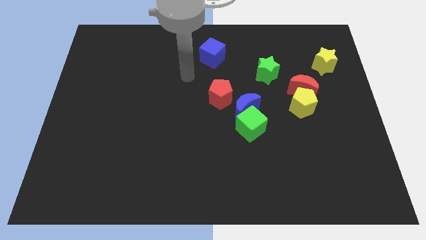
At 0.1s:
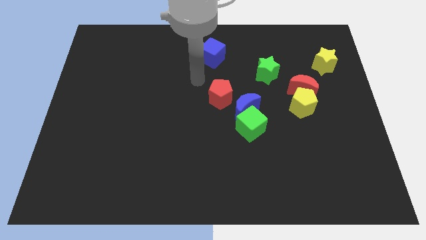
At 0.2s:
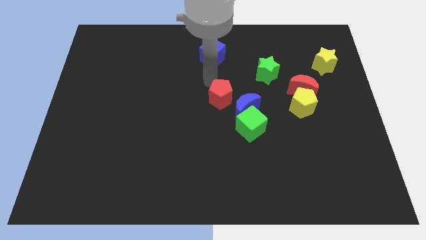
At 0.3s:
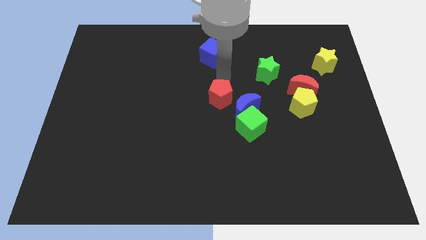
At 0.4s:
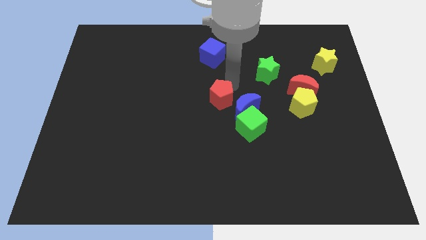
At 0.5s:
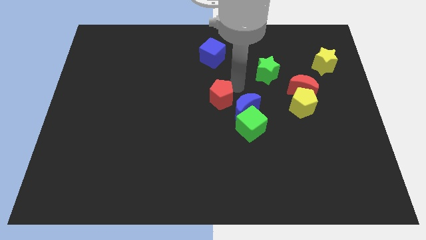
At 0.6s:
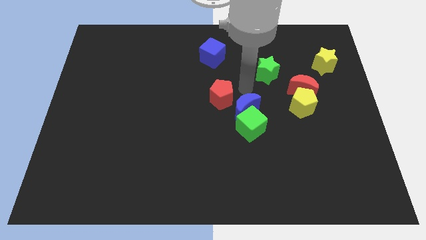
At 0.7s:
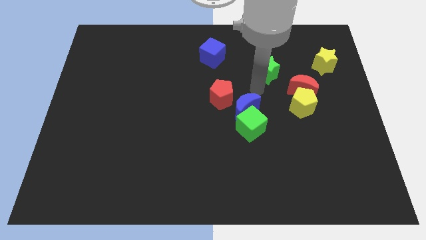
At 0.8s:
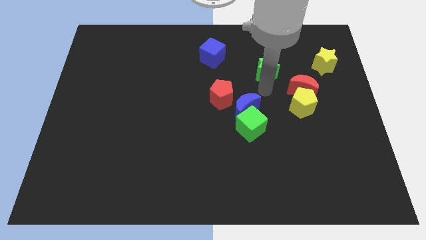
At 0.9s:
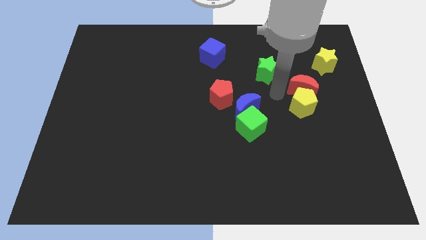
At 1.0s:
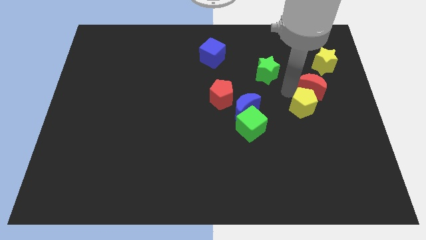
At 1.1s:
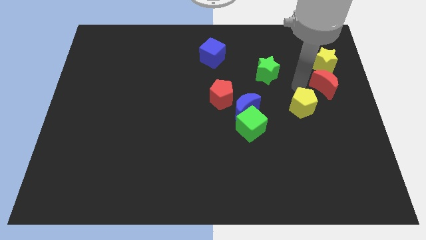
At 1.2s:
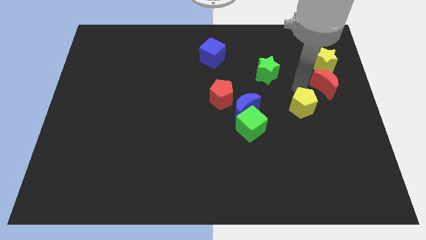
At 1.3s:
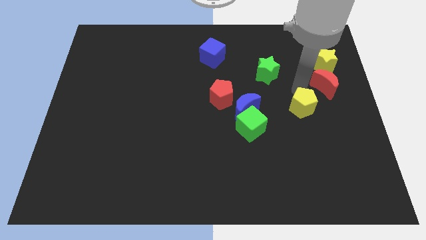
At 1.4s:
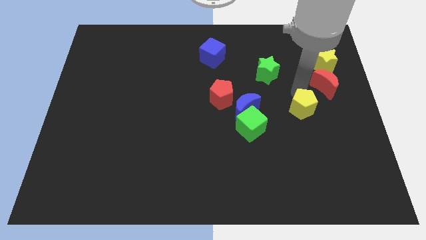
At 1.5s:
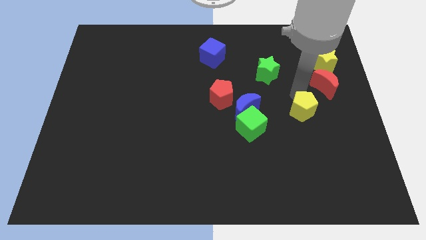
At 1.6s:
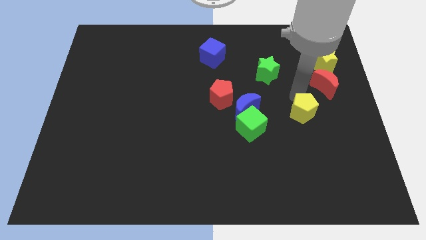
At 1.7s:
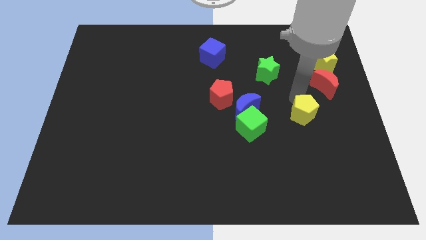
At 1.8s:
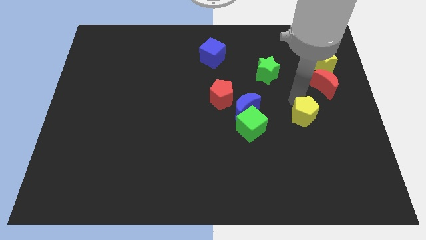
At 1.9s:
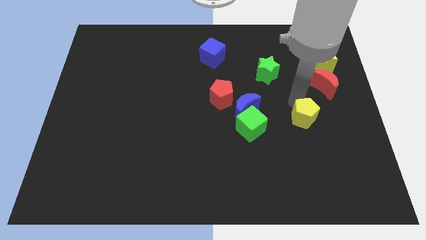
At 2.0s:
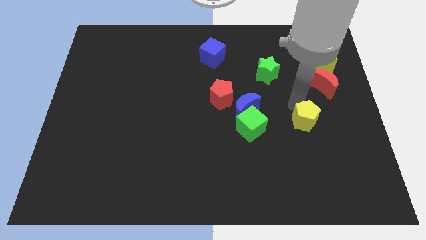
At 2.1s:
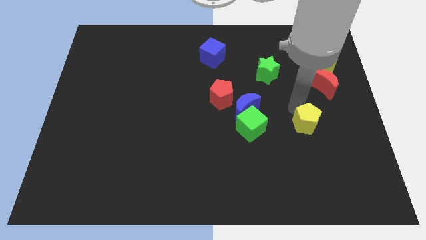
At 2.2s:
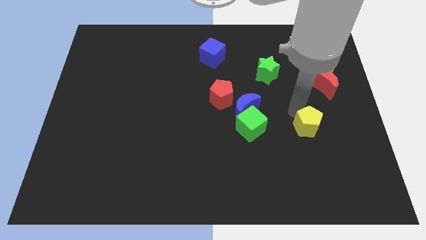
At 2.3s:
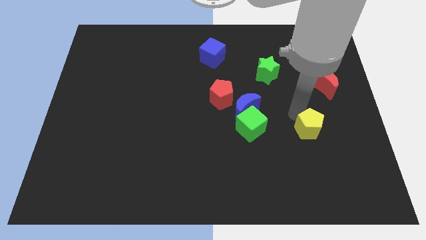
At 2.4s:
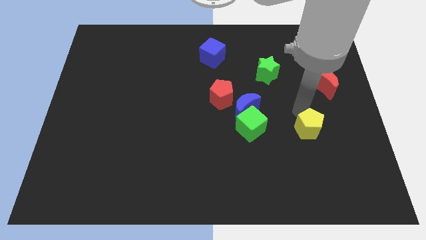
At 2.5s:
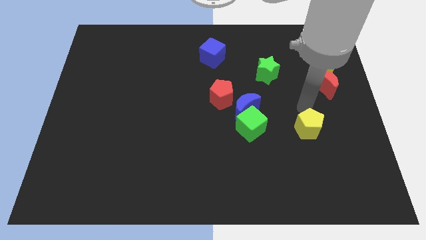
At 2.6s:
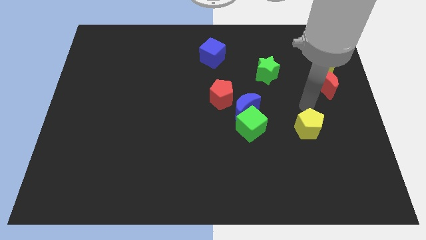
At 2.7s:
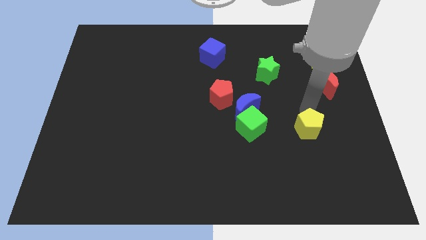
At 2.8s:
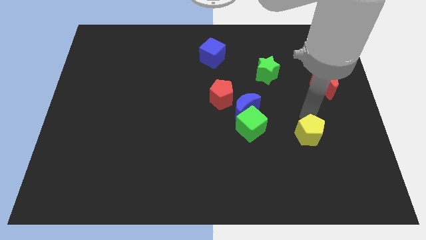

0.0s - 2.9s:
slide the yellow pentagon down a bit

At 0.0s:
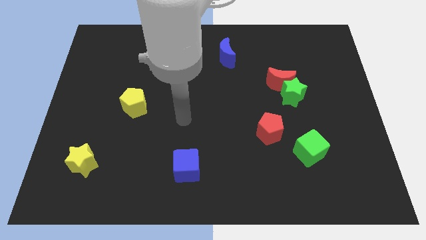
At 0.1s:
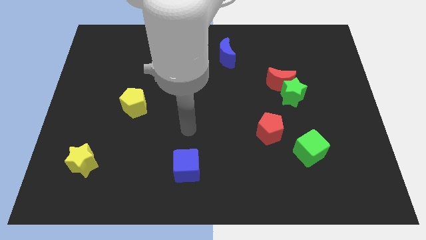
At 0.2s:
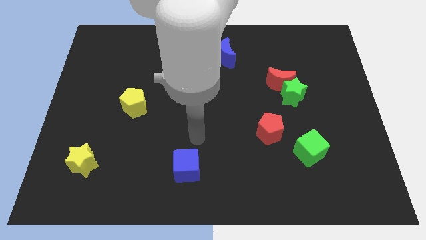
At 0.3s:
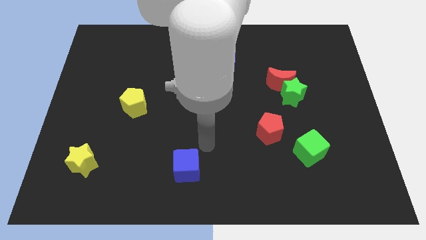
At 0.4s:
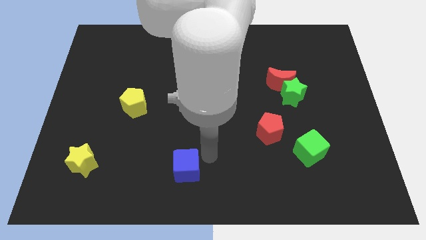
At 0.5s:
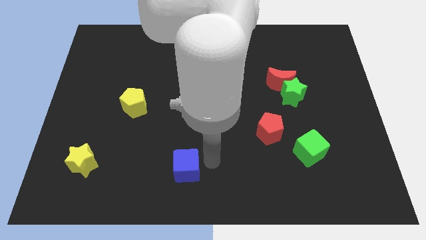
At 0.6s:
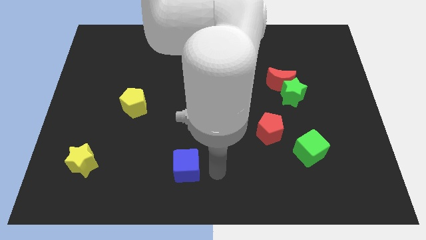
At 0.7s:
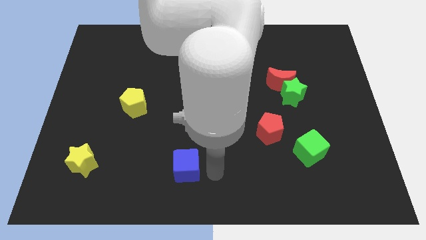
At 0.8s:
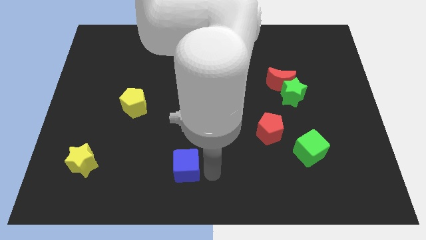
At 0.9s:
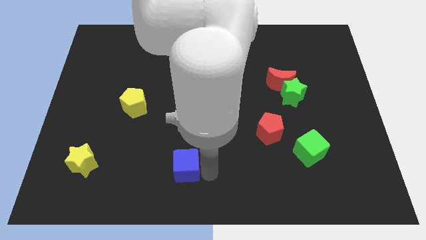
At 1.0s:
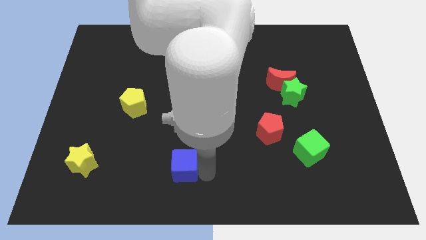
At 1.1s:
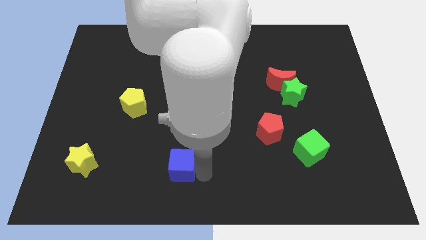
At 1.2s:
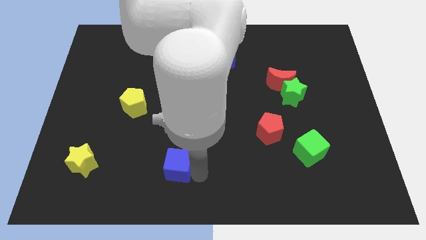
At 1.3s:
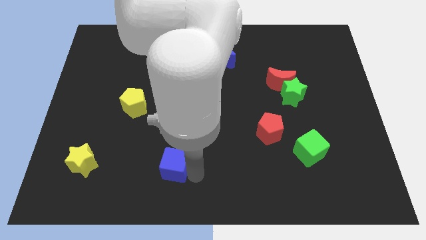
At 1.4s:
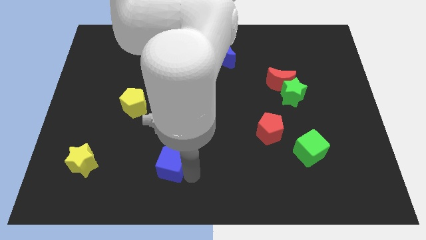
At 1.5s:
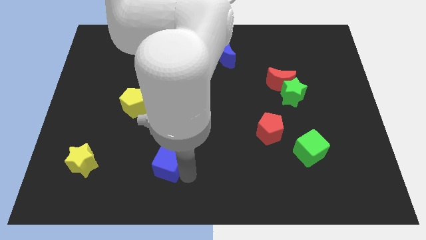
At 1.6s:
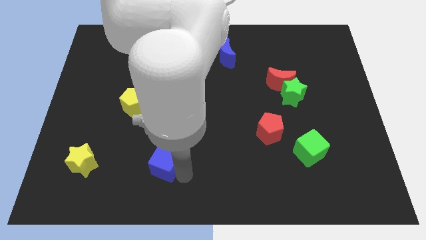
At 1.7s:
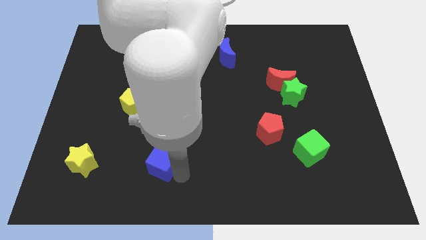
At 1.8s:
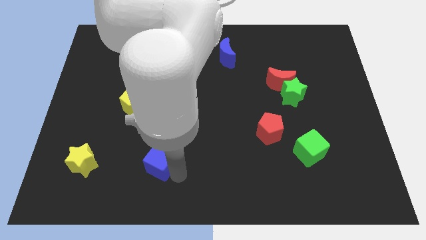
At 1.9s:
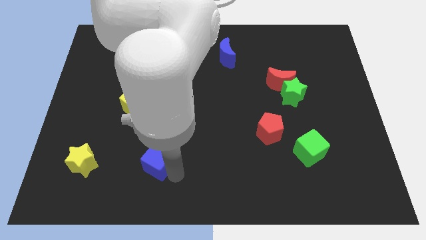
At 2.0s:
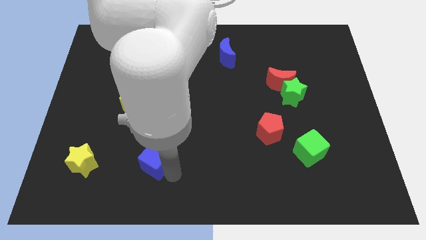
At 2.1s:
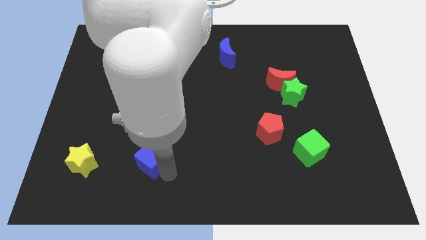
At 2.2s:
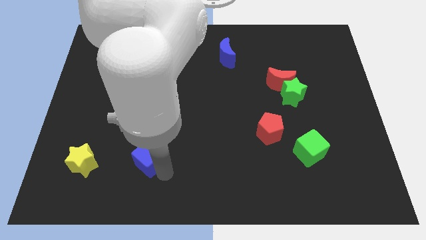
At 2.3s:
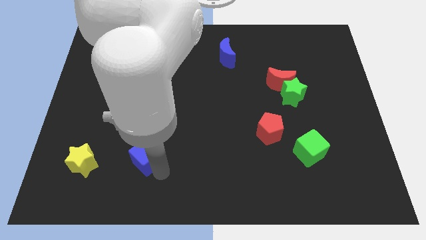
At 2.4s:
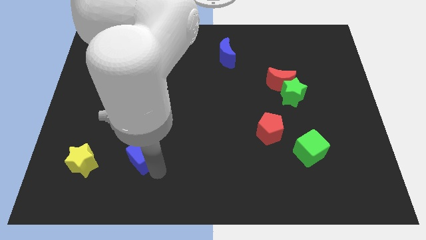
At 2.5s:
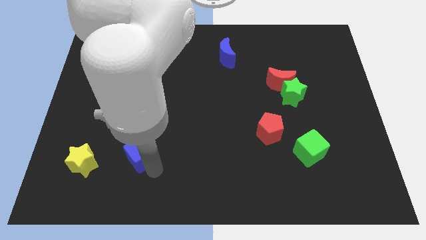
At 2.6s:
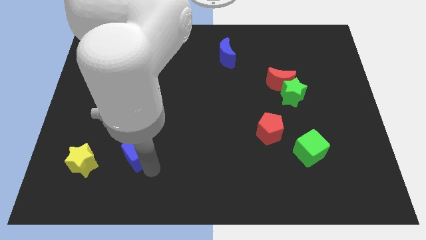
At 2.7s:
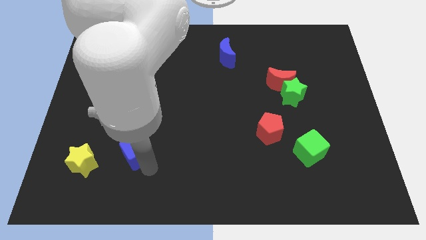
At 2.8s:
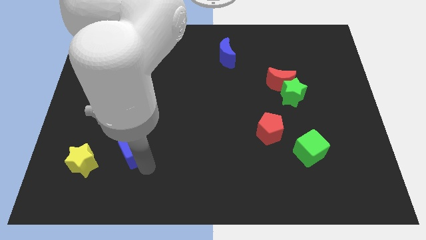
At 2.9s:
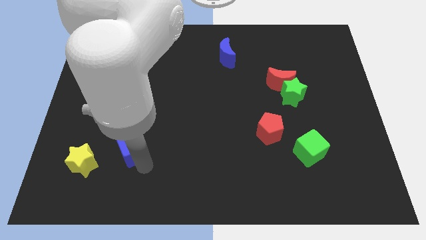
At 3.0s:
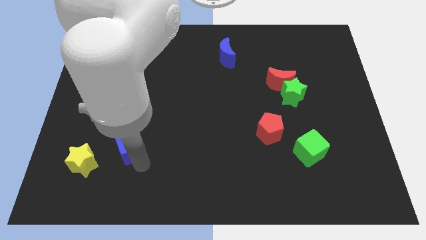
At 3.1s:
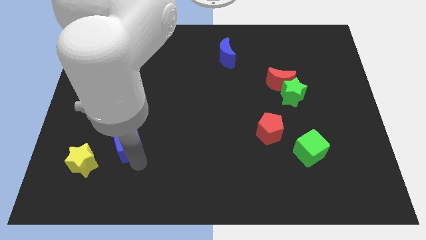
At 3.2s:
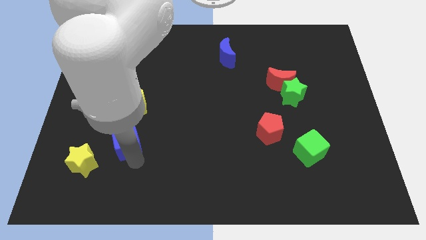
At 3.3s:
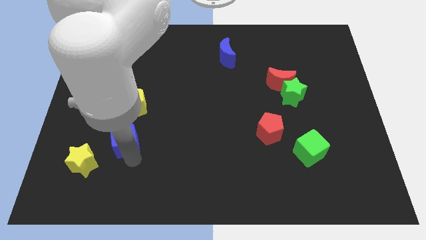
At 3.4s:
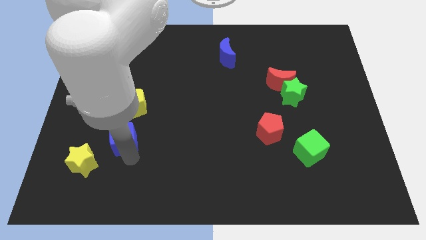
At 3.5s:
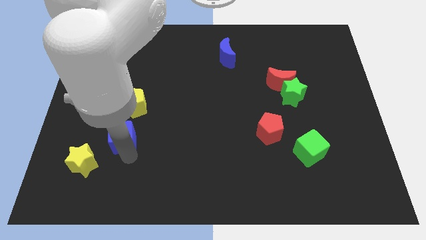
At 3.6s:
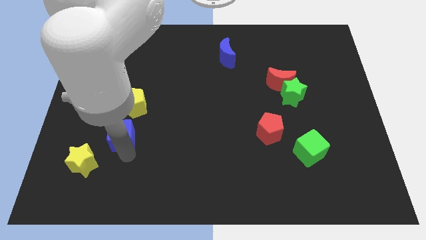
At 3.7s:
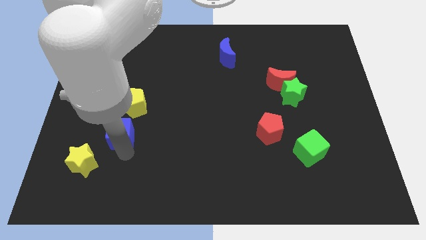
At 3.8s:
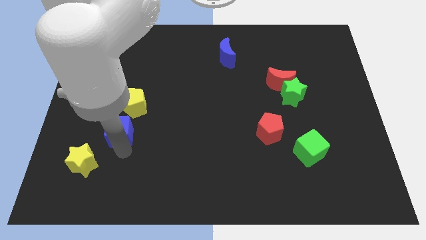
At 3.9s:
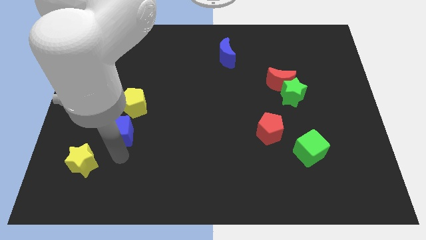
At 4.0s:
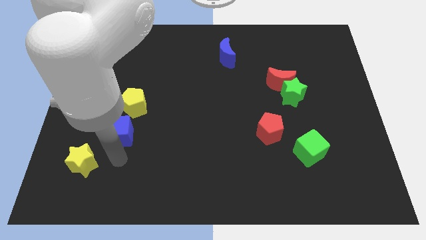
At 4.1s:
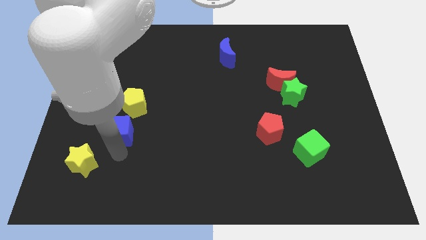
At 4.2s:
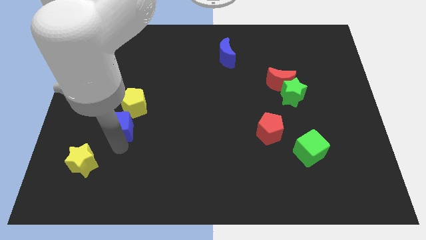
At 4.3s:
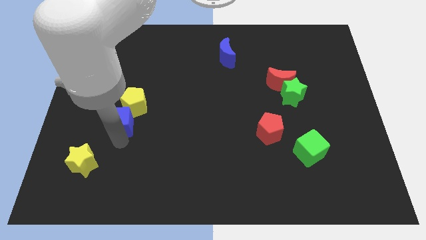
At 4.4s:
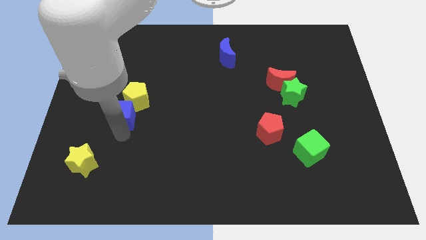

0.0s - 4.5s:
slide the blue cube up and to the left diagonally

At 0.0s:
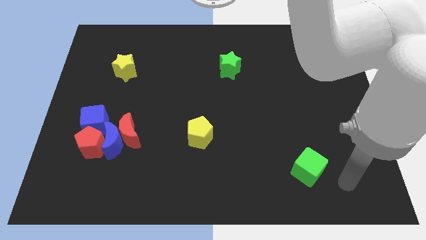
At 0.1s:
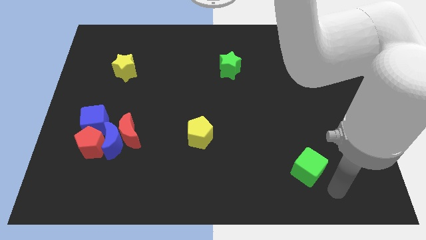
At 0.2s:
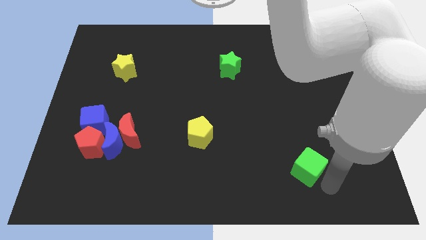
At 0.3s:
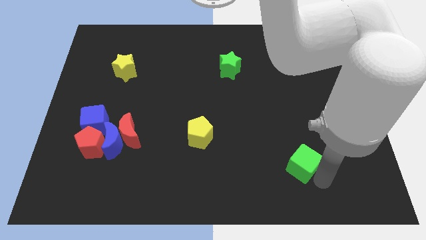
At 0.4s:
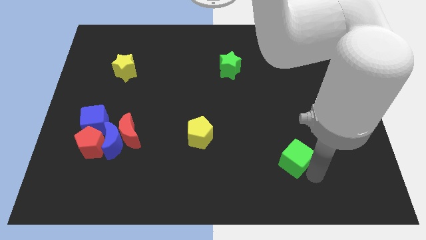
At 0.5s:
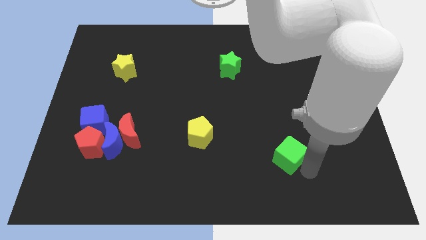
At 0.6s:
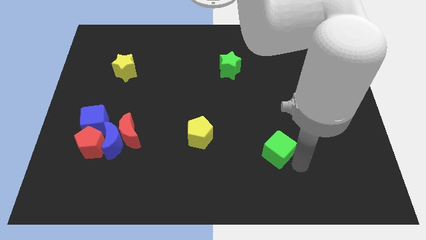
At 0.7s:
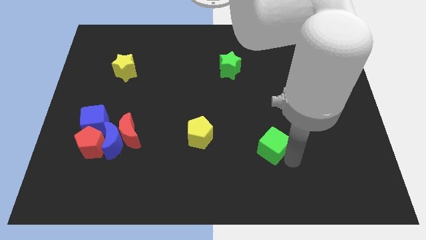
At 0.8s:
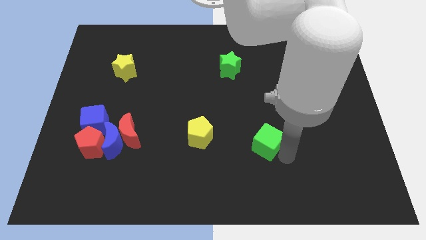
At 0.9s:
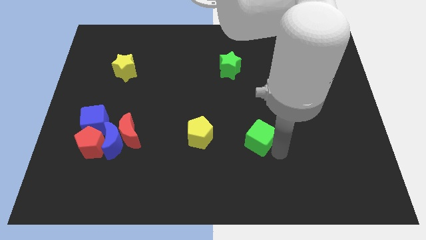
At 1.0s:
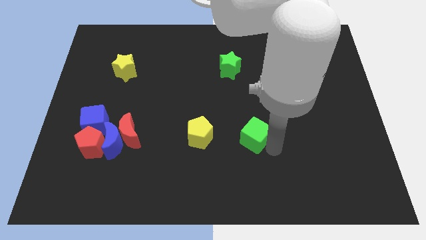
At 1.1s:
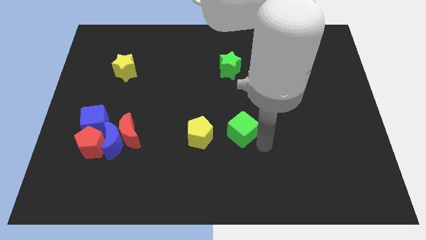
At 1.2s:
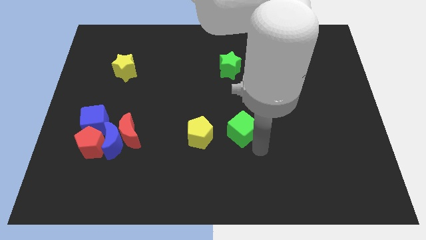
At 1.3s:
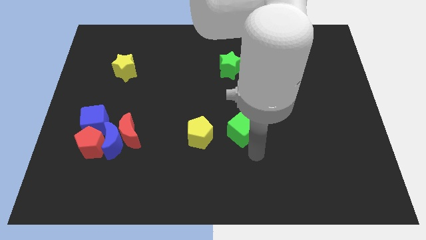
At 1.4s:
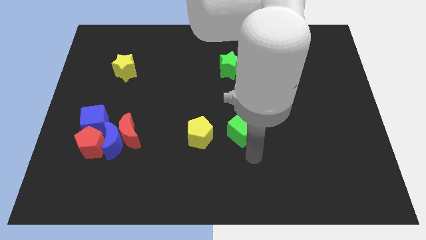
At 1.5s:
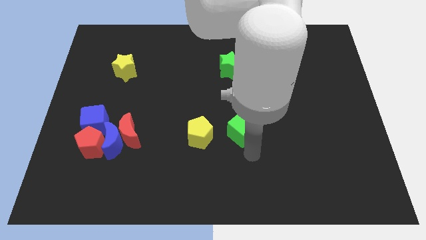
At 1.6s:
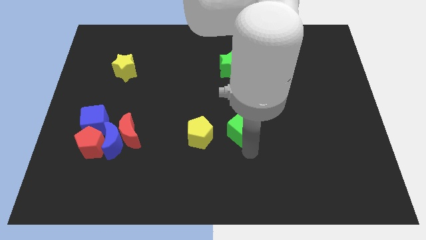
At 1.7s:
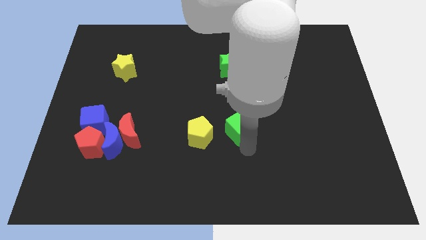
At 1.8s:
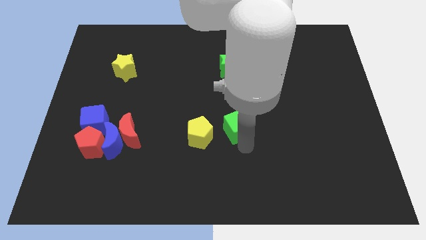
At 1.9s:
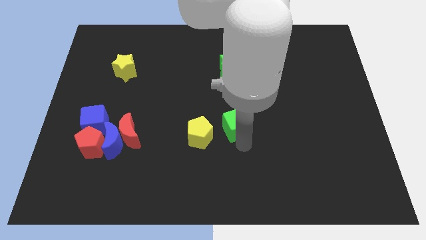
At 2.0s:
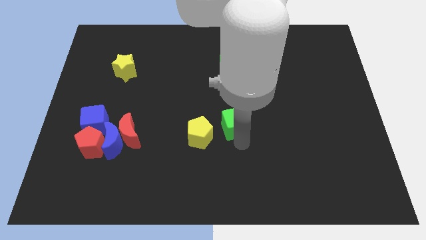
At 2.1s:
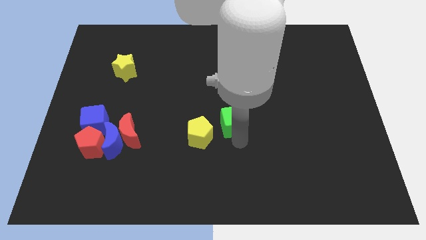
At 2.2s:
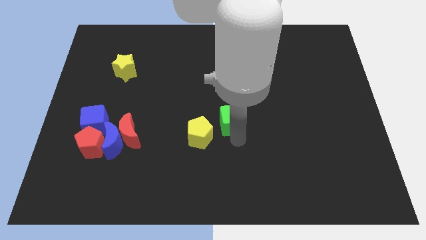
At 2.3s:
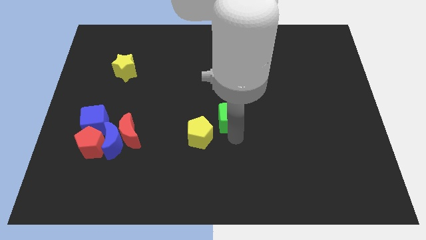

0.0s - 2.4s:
move the green cube up and then left
